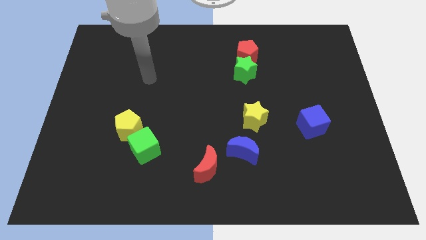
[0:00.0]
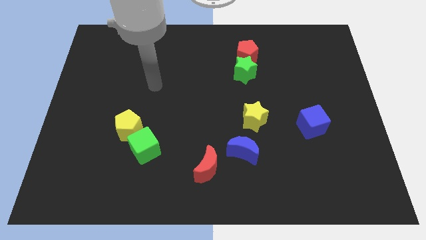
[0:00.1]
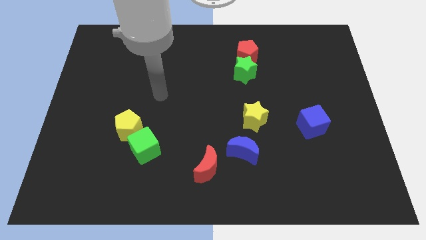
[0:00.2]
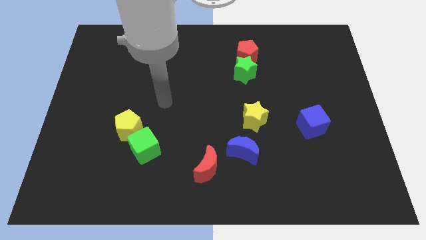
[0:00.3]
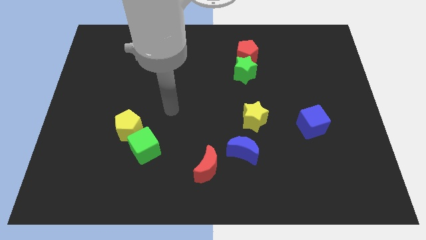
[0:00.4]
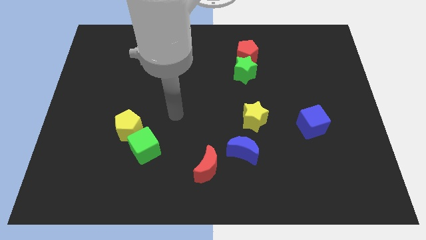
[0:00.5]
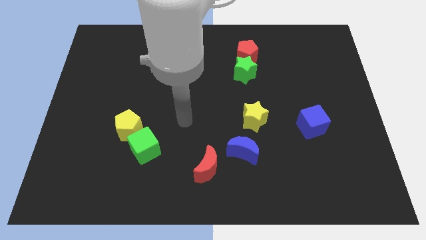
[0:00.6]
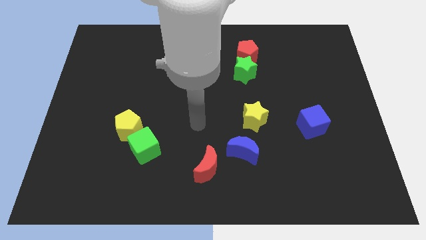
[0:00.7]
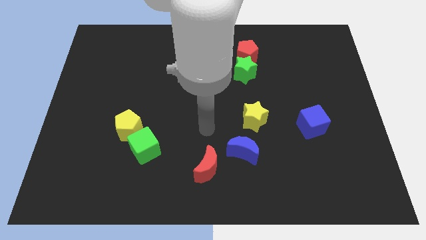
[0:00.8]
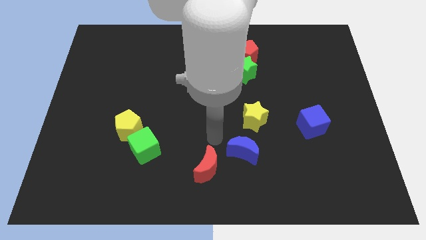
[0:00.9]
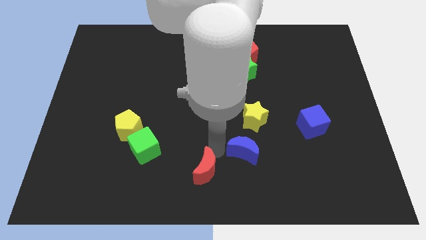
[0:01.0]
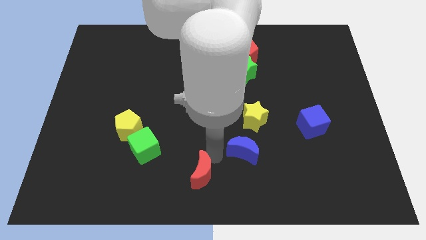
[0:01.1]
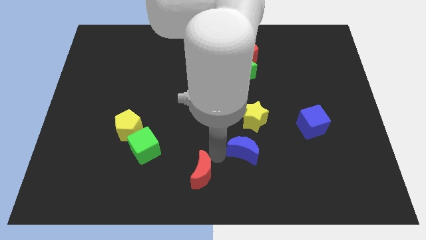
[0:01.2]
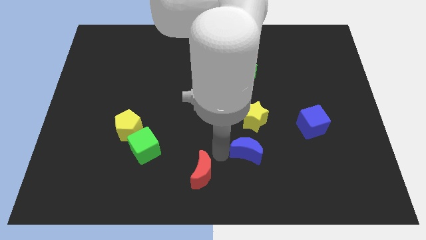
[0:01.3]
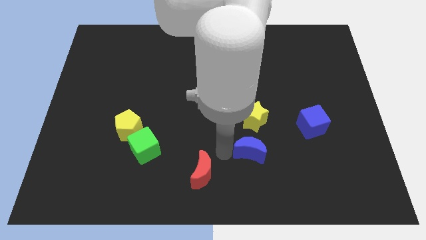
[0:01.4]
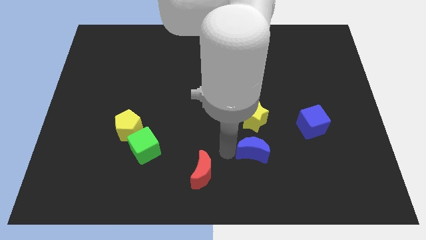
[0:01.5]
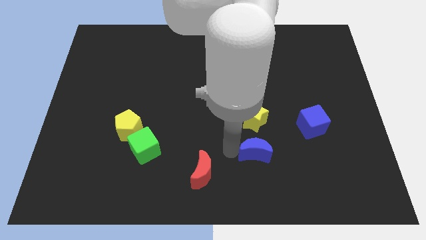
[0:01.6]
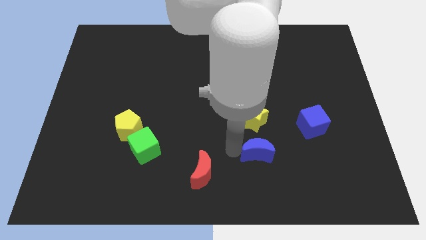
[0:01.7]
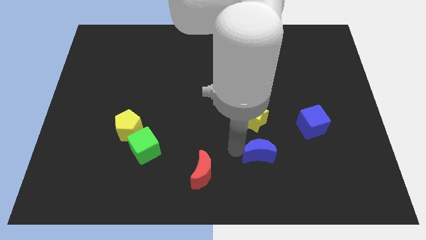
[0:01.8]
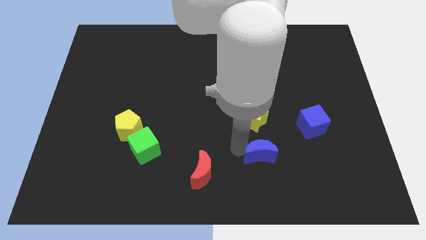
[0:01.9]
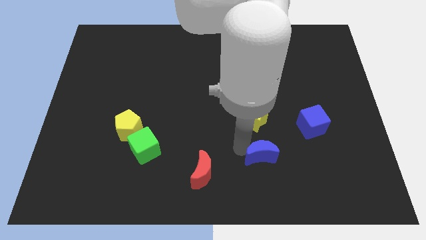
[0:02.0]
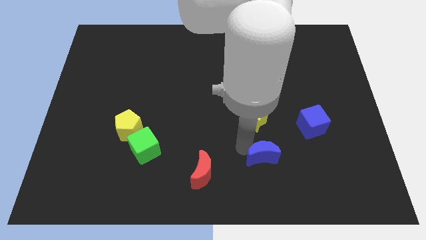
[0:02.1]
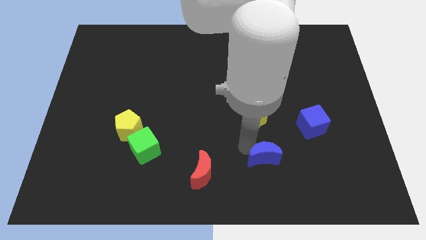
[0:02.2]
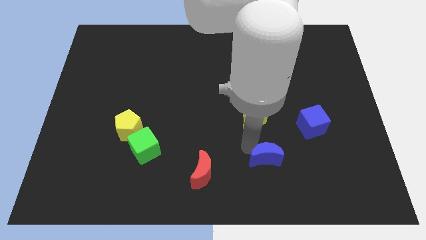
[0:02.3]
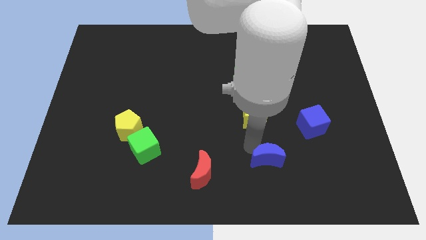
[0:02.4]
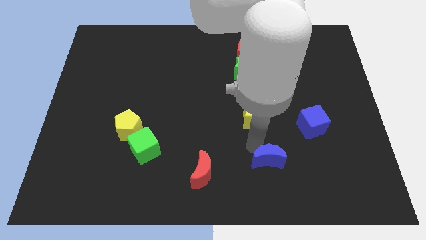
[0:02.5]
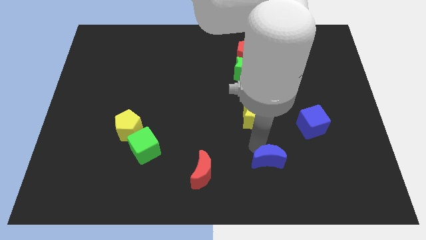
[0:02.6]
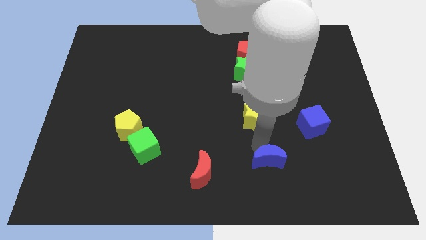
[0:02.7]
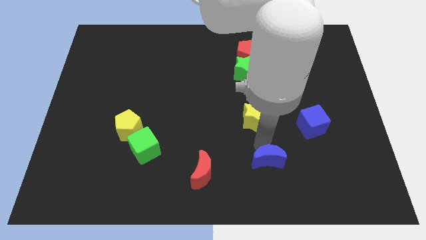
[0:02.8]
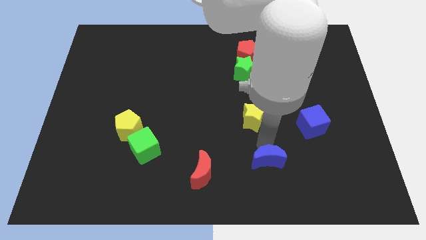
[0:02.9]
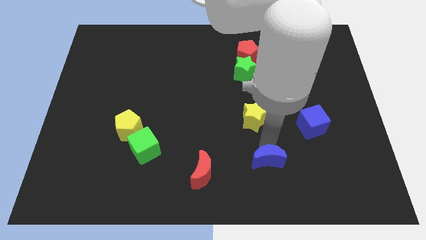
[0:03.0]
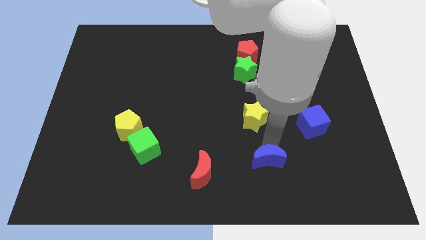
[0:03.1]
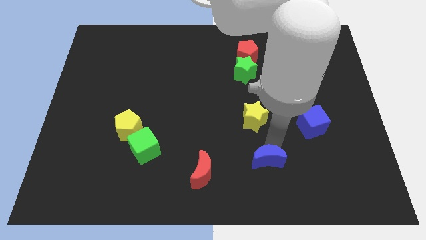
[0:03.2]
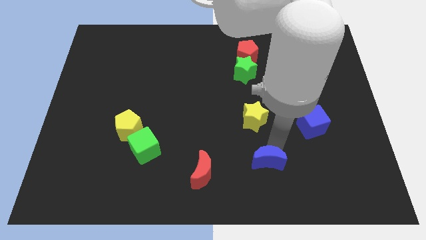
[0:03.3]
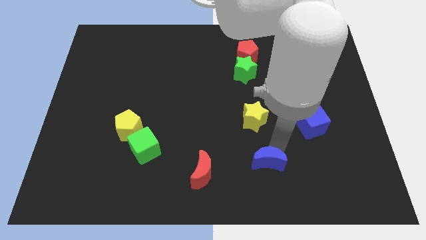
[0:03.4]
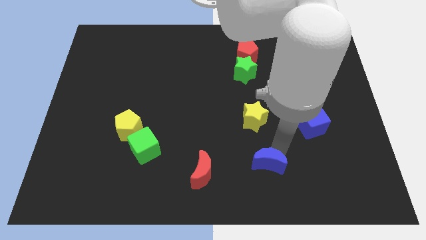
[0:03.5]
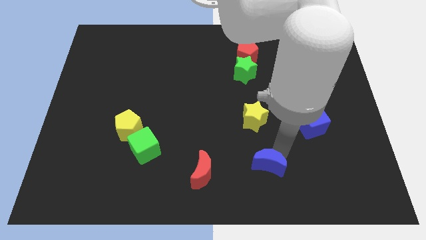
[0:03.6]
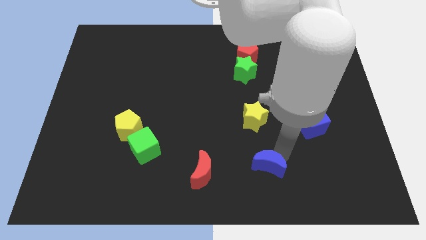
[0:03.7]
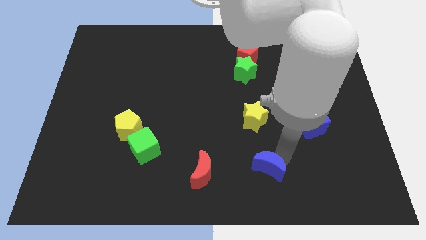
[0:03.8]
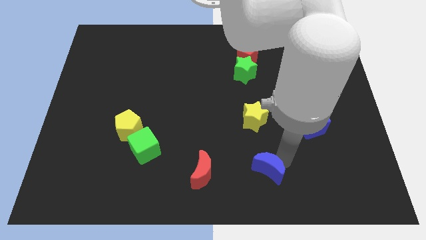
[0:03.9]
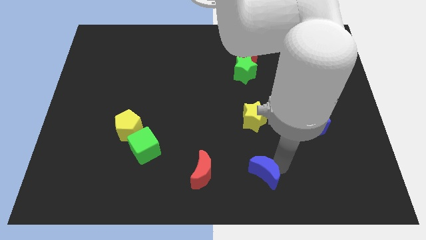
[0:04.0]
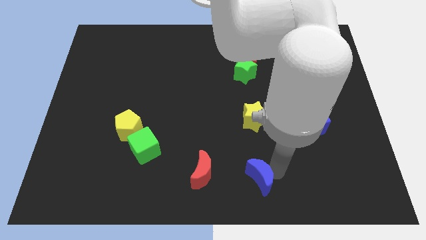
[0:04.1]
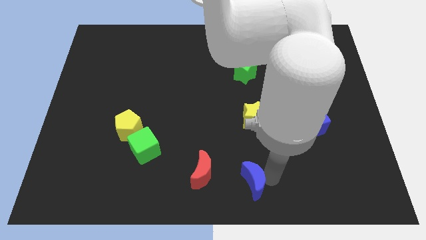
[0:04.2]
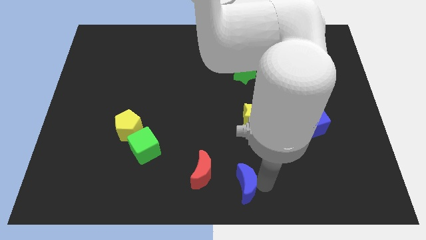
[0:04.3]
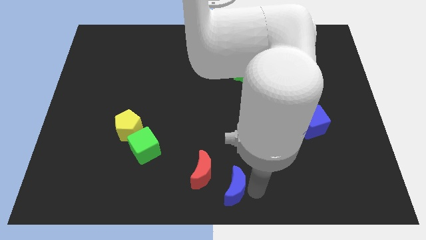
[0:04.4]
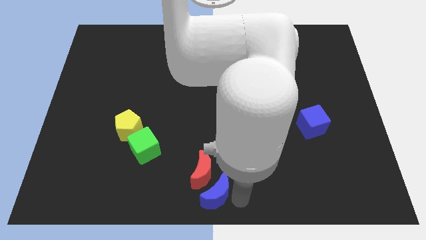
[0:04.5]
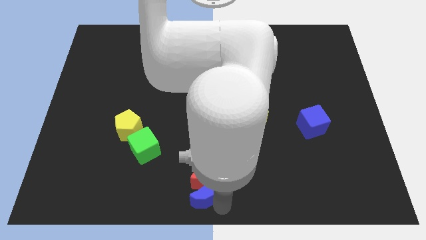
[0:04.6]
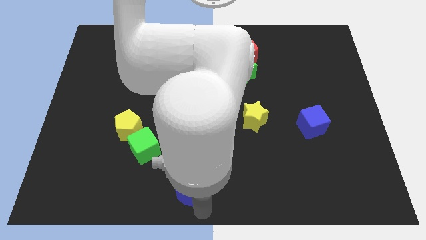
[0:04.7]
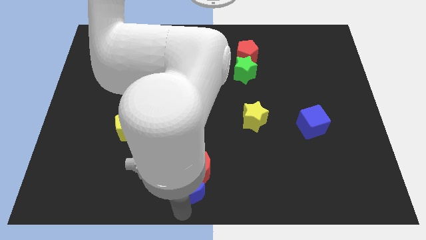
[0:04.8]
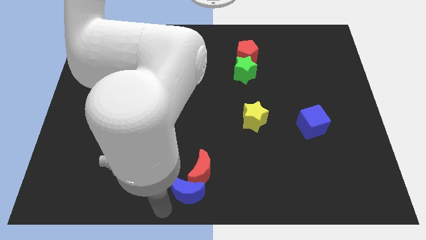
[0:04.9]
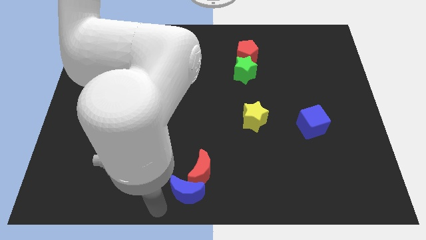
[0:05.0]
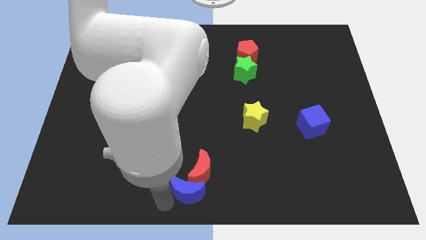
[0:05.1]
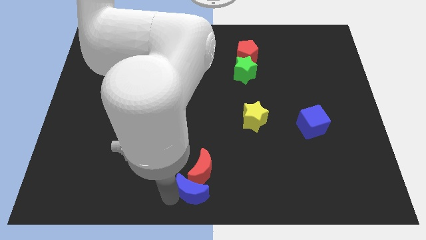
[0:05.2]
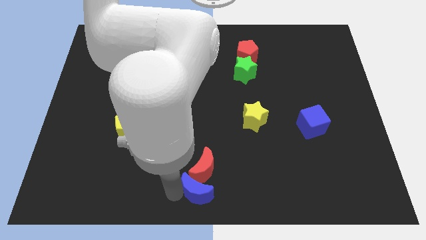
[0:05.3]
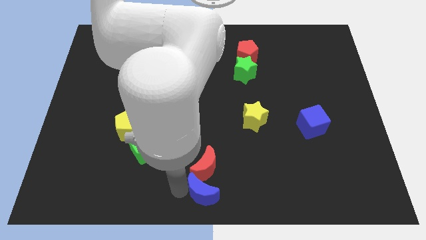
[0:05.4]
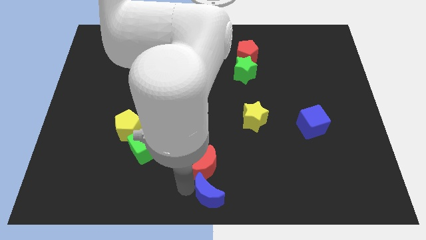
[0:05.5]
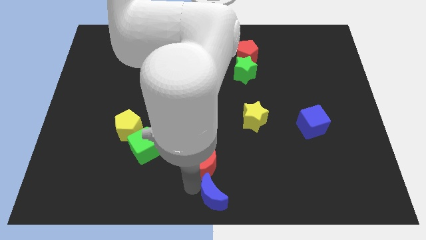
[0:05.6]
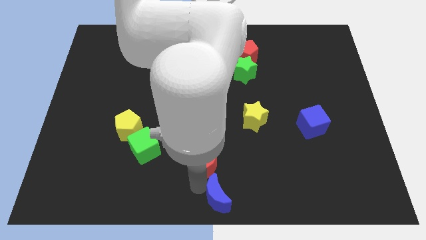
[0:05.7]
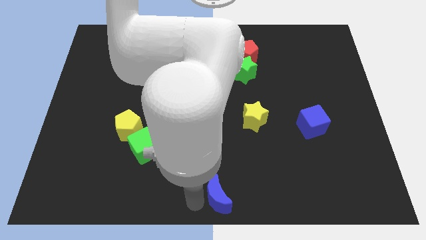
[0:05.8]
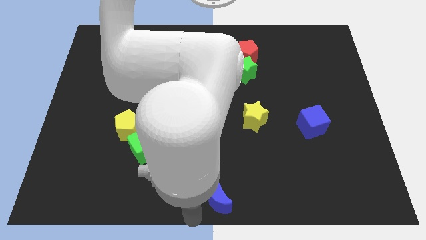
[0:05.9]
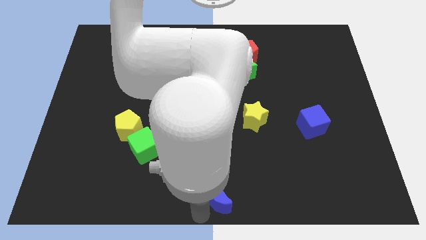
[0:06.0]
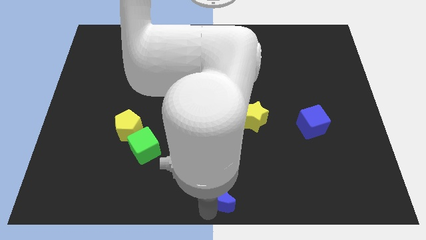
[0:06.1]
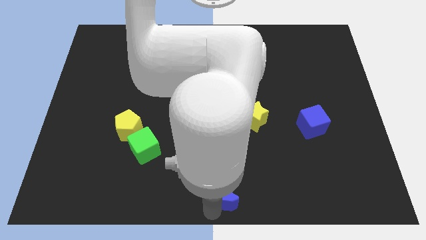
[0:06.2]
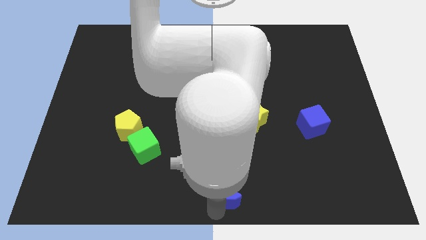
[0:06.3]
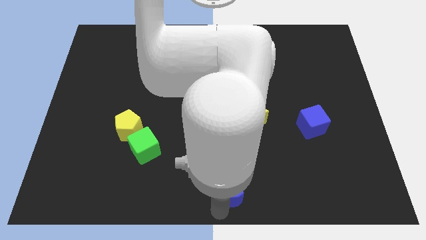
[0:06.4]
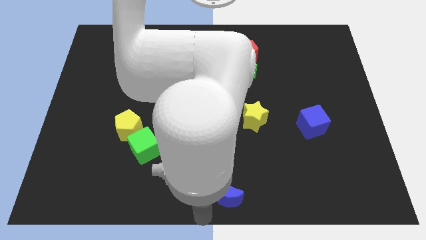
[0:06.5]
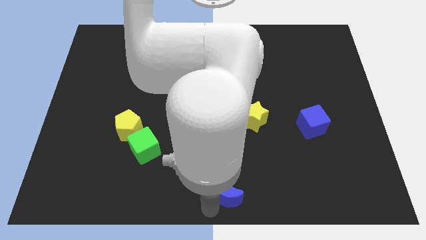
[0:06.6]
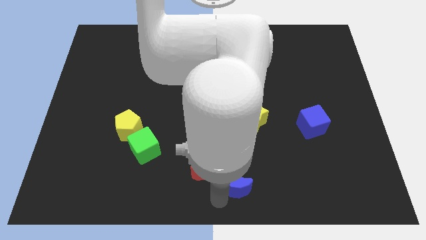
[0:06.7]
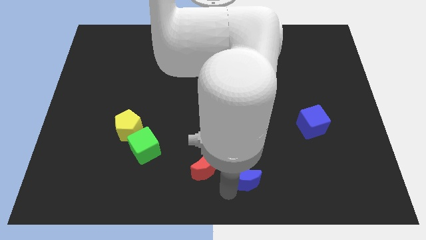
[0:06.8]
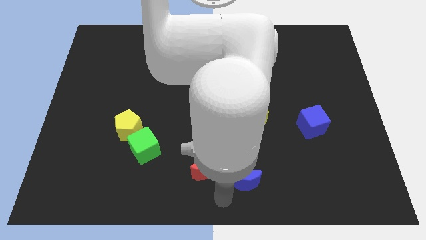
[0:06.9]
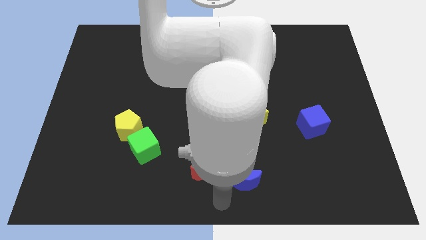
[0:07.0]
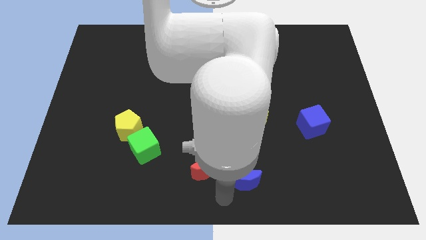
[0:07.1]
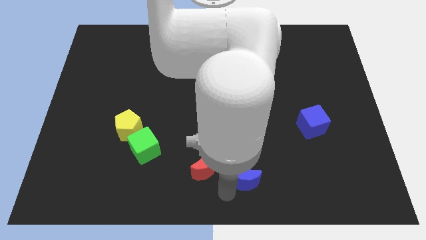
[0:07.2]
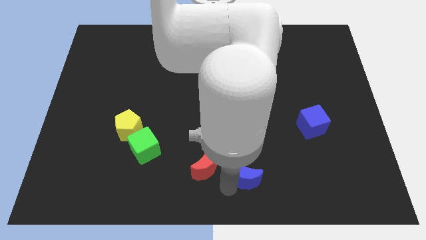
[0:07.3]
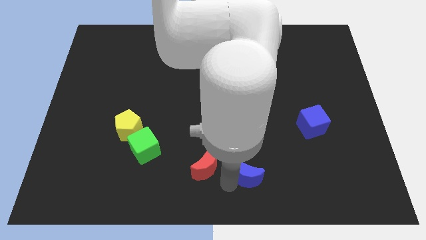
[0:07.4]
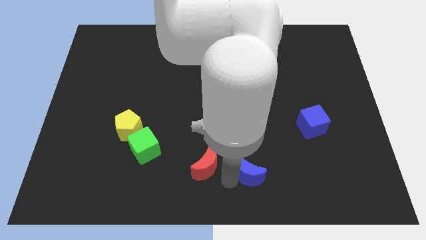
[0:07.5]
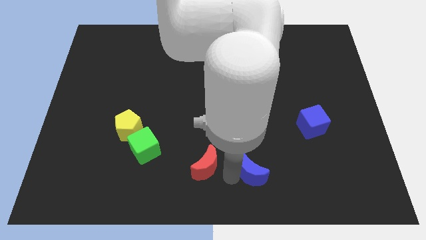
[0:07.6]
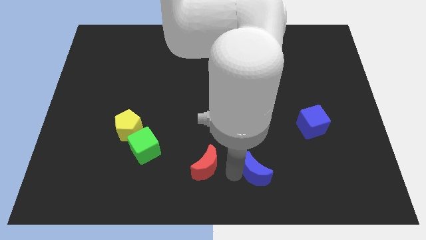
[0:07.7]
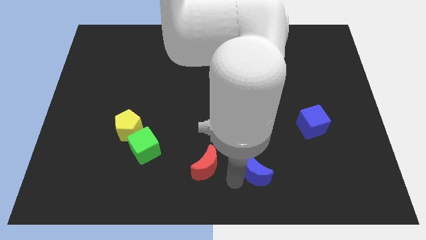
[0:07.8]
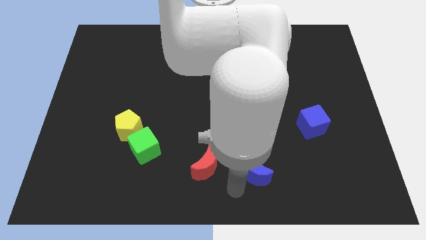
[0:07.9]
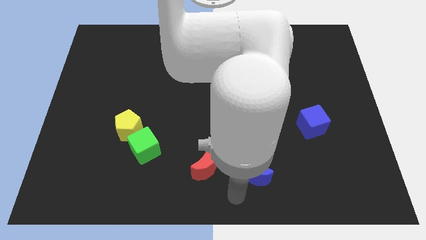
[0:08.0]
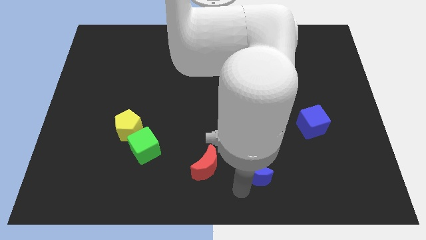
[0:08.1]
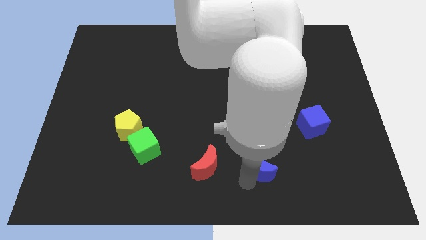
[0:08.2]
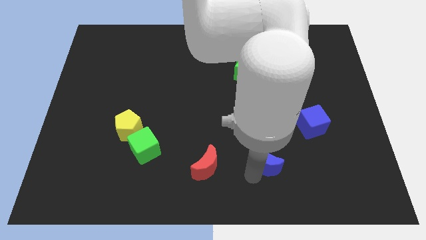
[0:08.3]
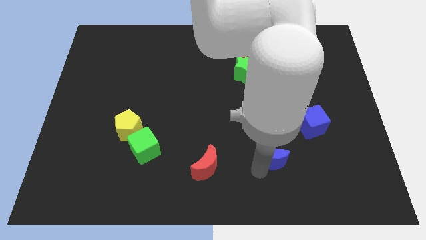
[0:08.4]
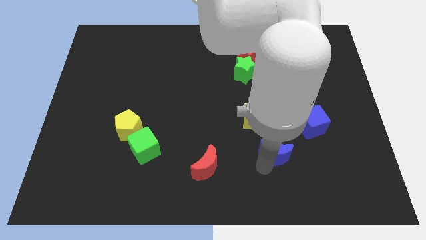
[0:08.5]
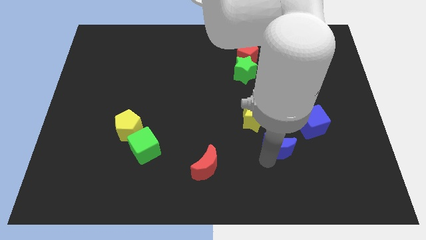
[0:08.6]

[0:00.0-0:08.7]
move the blue moon to the right a little bit
